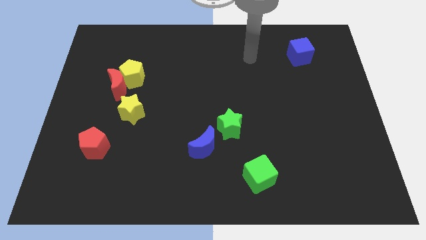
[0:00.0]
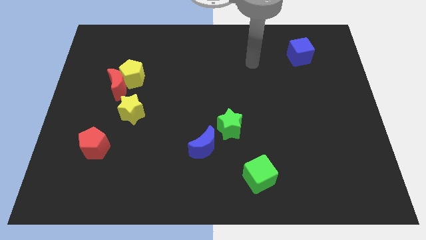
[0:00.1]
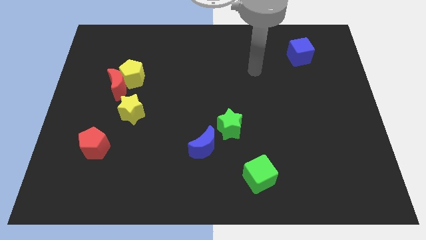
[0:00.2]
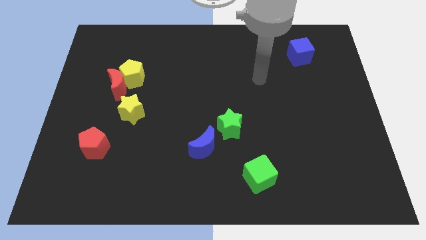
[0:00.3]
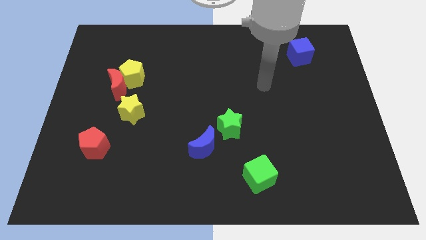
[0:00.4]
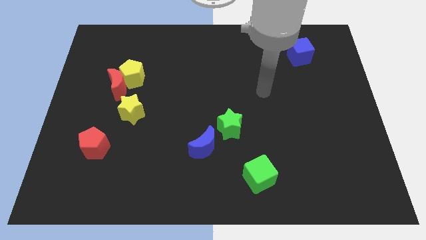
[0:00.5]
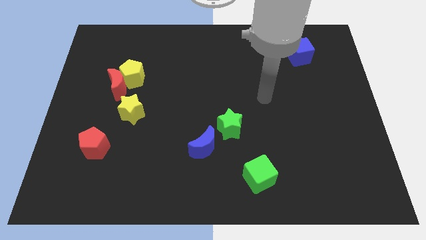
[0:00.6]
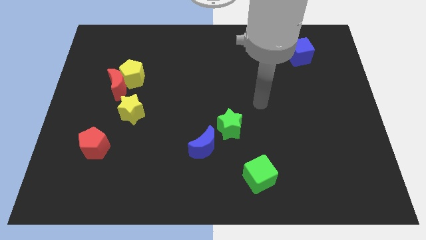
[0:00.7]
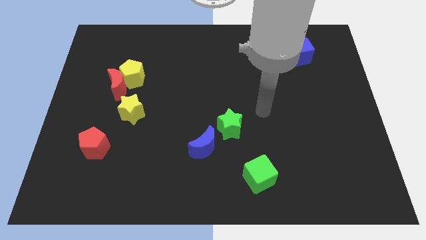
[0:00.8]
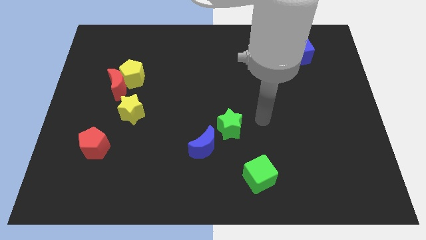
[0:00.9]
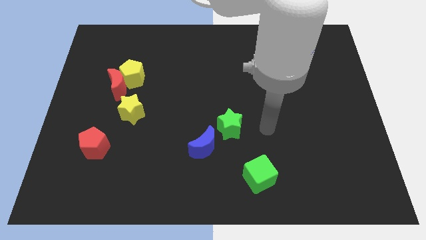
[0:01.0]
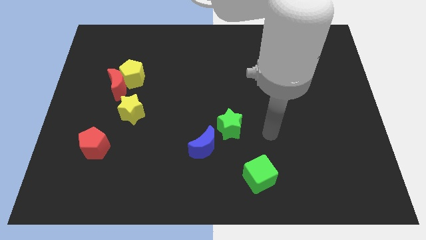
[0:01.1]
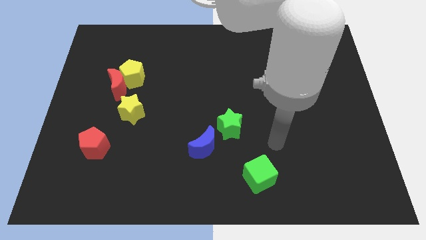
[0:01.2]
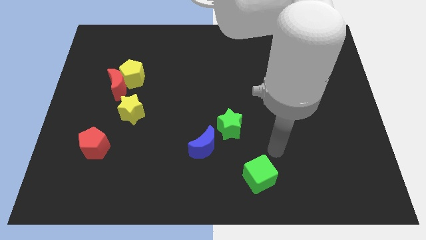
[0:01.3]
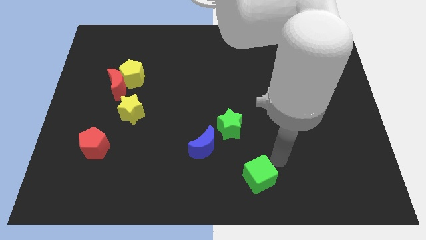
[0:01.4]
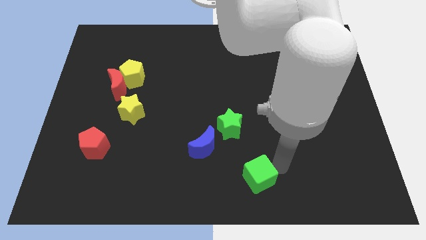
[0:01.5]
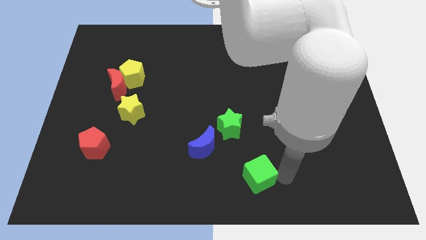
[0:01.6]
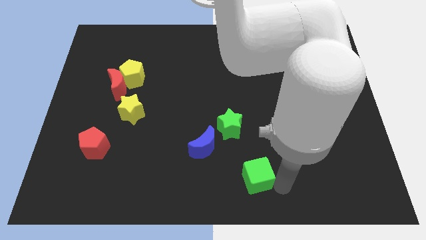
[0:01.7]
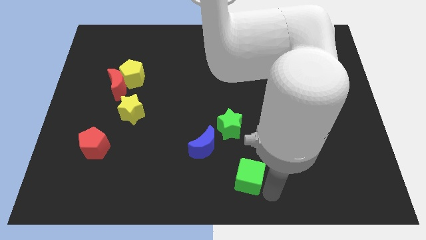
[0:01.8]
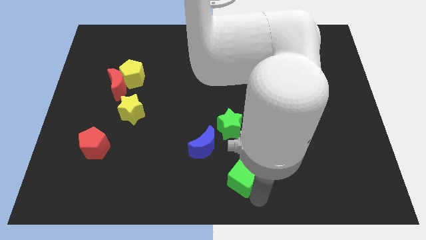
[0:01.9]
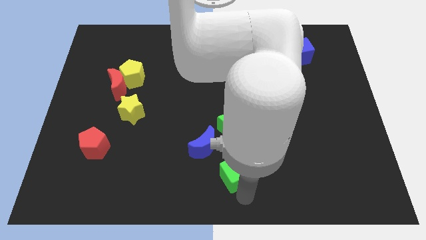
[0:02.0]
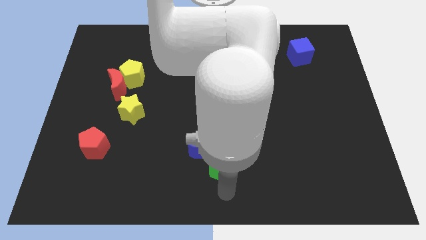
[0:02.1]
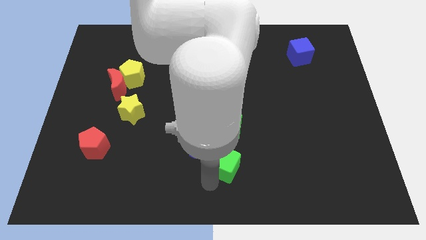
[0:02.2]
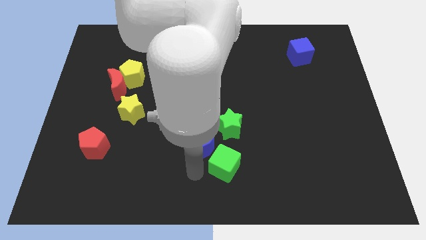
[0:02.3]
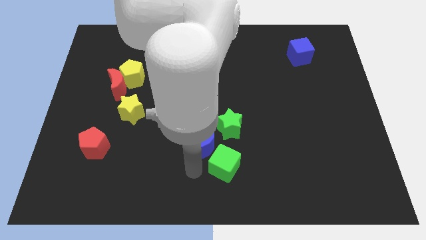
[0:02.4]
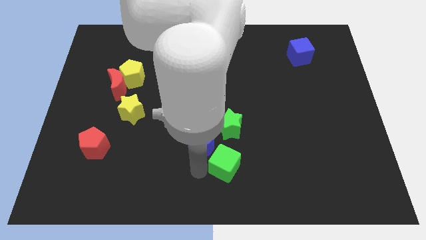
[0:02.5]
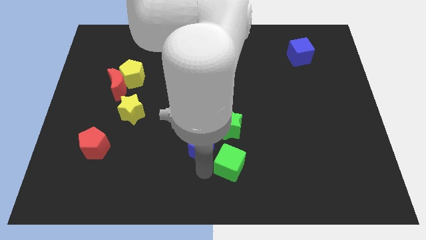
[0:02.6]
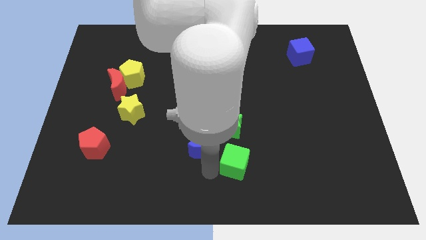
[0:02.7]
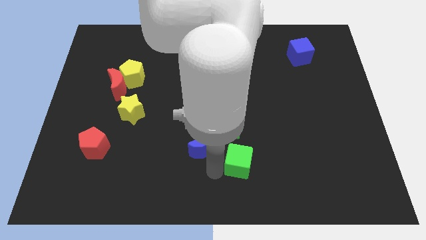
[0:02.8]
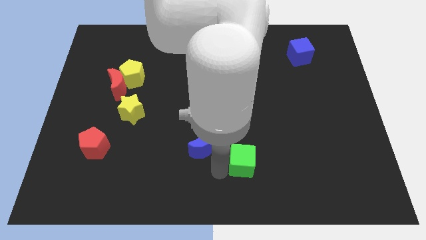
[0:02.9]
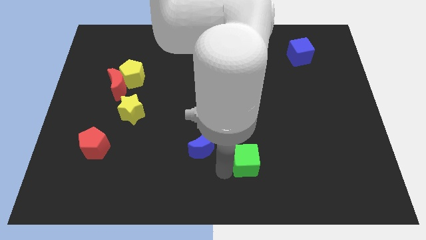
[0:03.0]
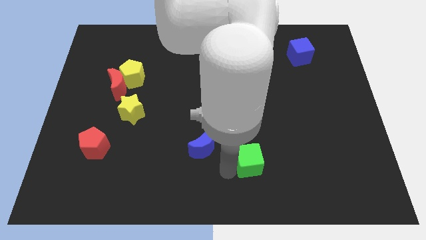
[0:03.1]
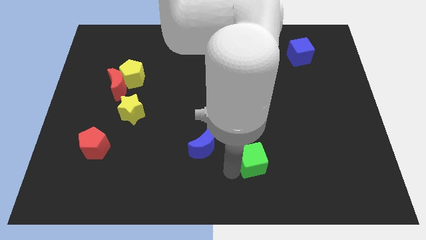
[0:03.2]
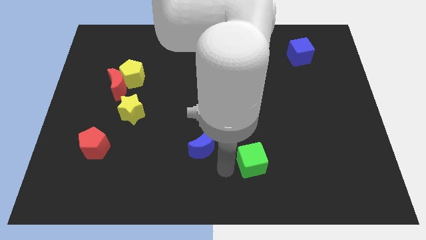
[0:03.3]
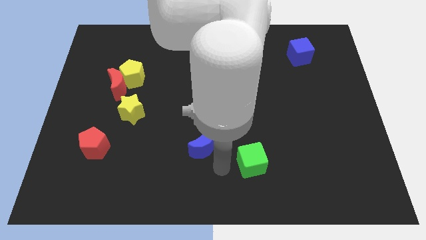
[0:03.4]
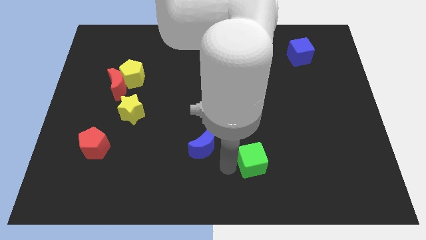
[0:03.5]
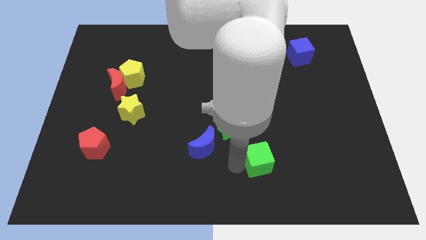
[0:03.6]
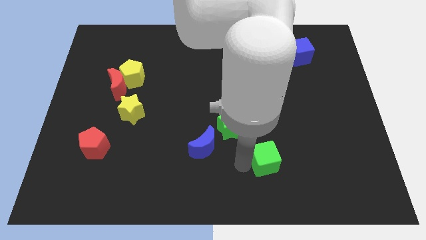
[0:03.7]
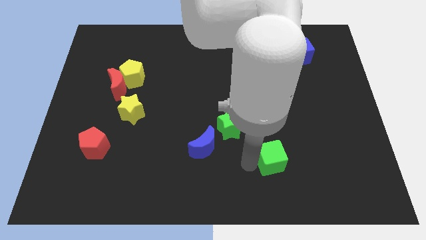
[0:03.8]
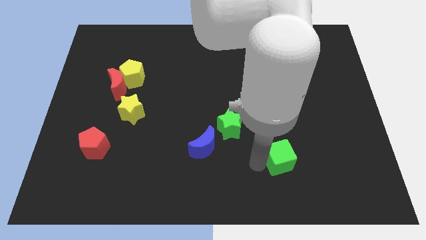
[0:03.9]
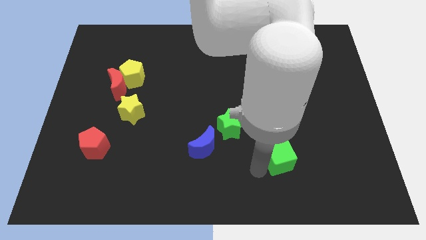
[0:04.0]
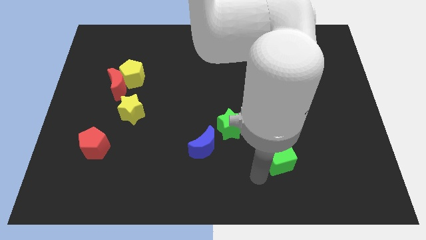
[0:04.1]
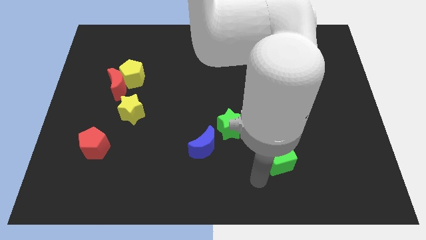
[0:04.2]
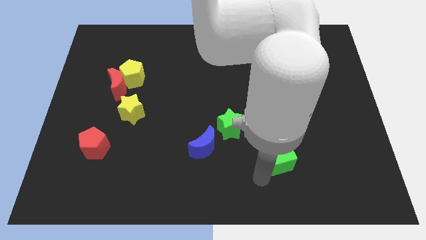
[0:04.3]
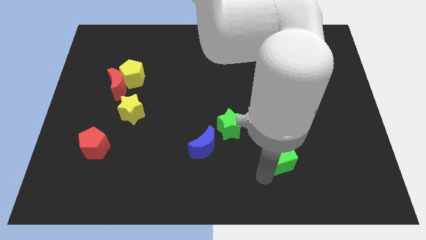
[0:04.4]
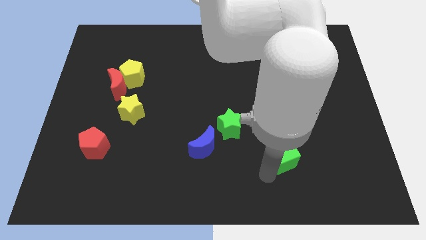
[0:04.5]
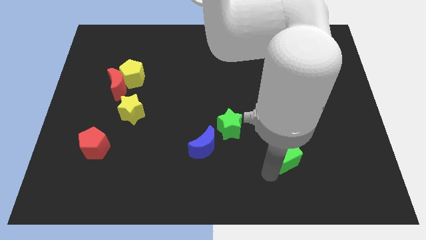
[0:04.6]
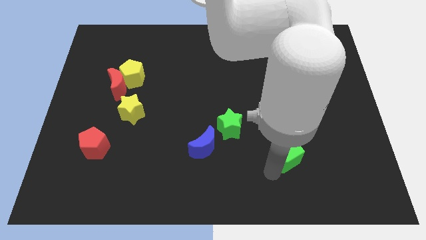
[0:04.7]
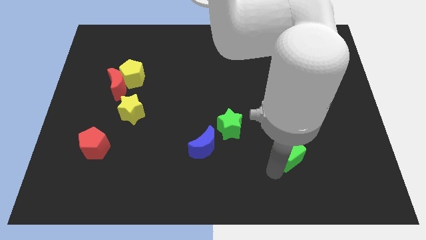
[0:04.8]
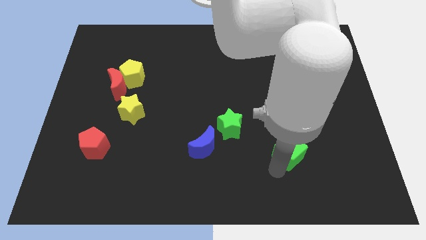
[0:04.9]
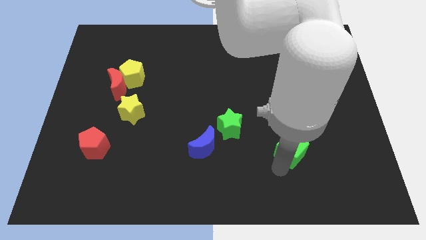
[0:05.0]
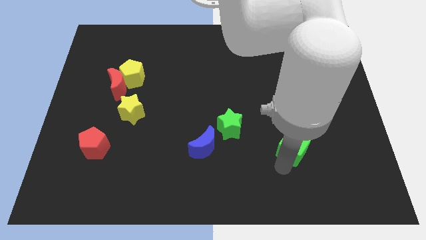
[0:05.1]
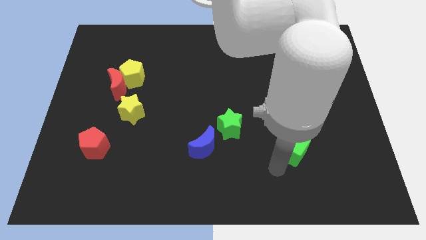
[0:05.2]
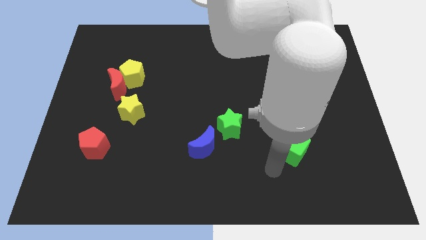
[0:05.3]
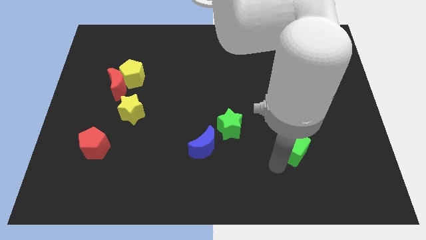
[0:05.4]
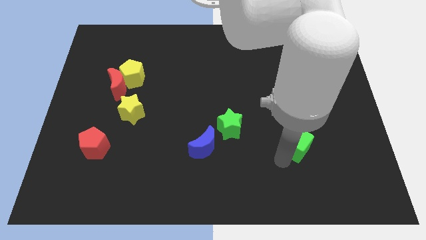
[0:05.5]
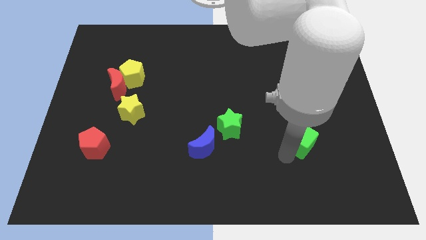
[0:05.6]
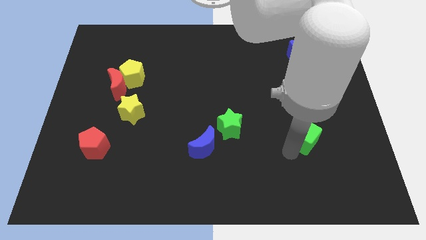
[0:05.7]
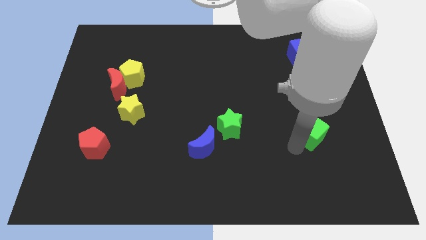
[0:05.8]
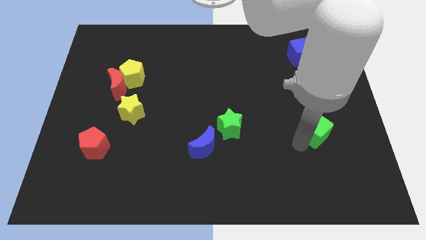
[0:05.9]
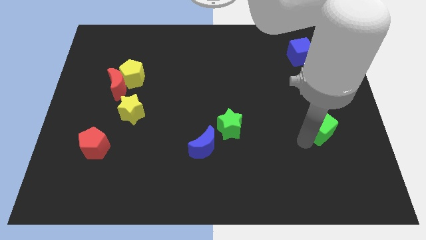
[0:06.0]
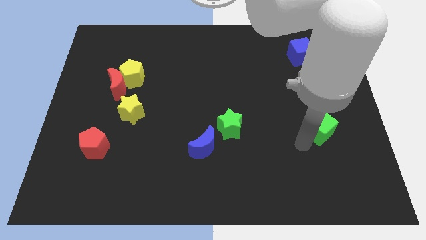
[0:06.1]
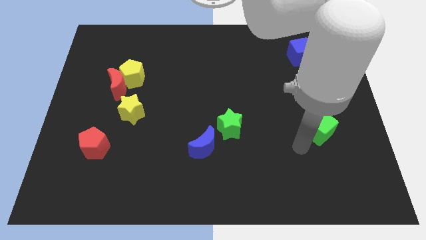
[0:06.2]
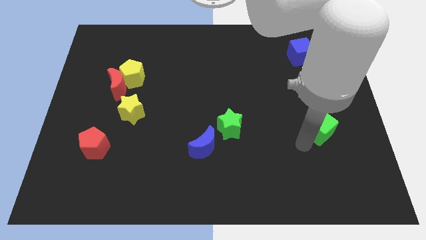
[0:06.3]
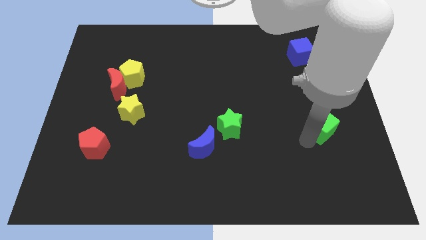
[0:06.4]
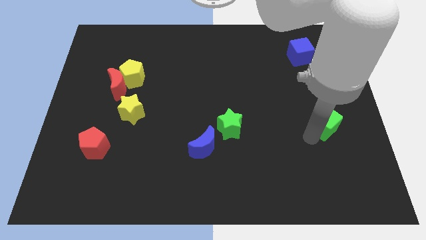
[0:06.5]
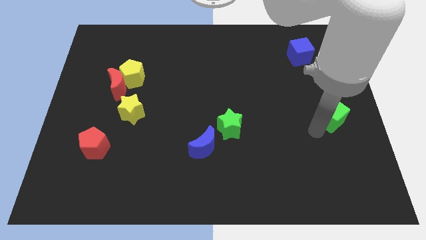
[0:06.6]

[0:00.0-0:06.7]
move the green cube to the right side
